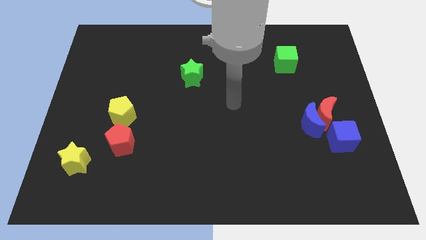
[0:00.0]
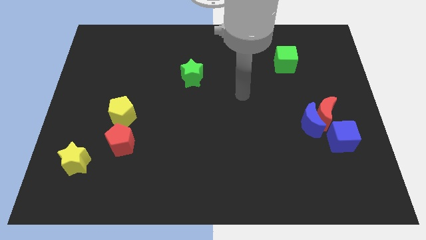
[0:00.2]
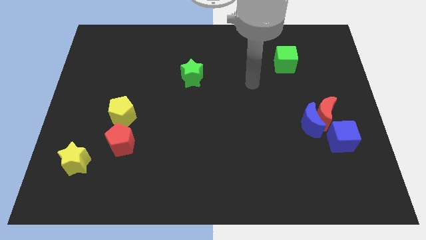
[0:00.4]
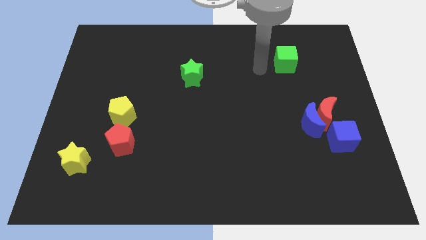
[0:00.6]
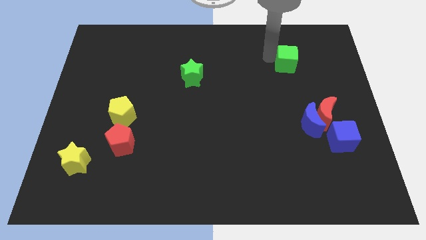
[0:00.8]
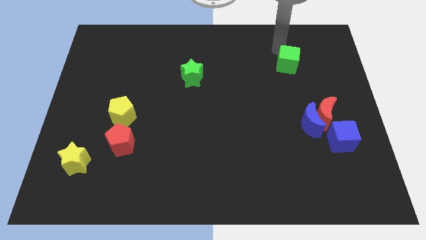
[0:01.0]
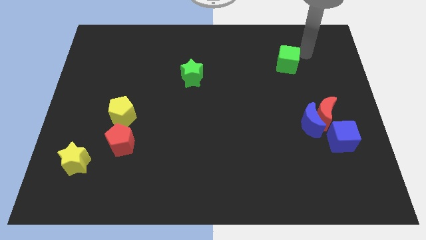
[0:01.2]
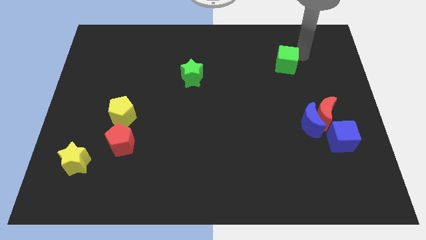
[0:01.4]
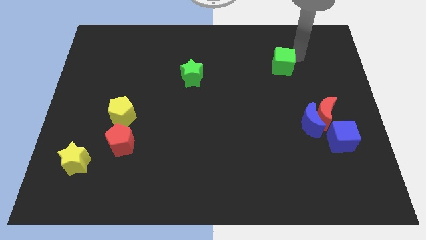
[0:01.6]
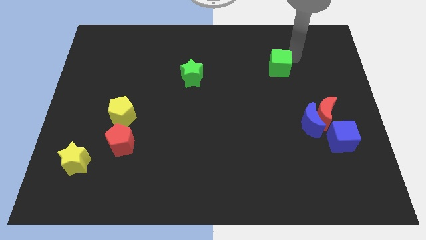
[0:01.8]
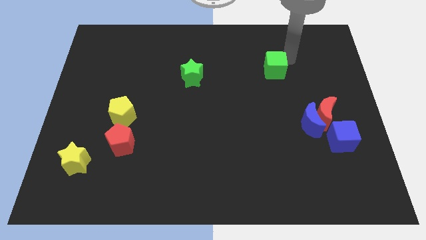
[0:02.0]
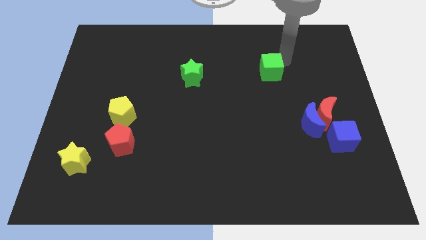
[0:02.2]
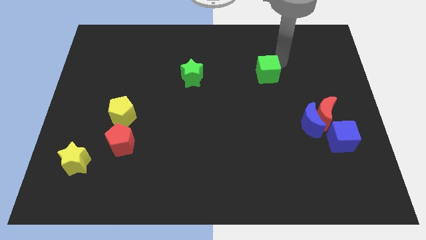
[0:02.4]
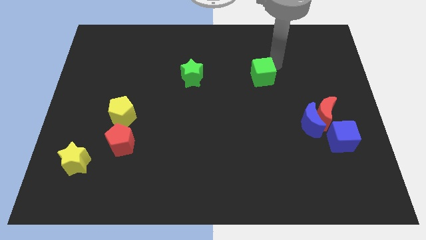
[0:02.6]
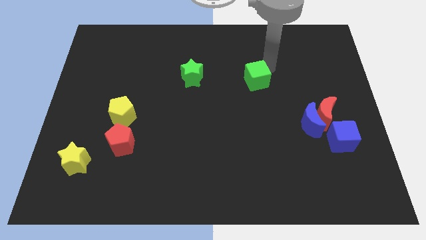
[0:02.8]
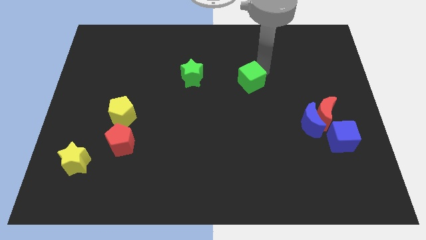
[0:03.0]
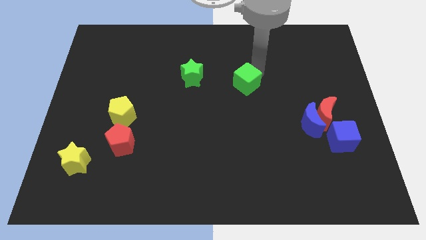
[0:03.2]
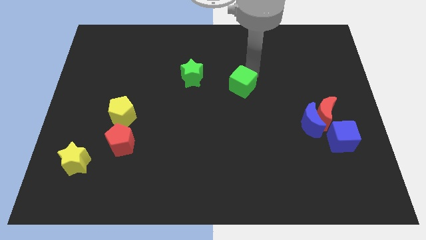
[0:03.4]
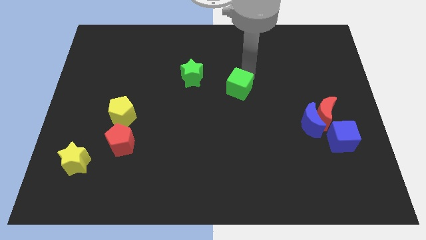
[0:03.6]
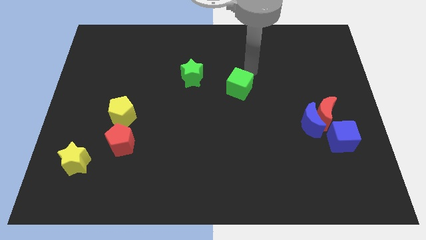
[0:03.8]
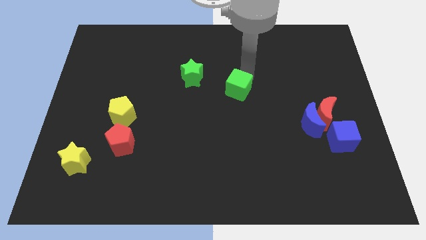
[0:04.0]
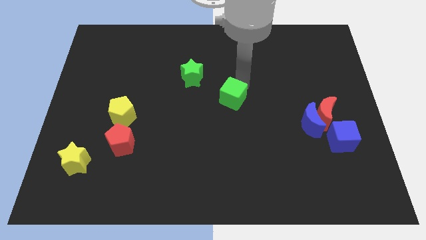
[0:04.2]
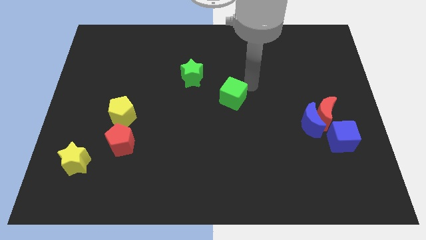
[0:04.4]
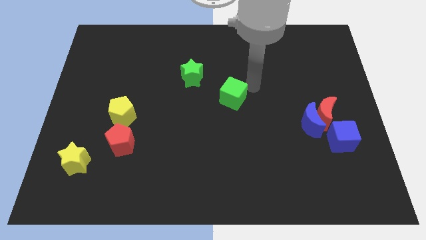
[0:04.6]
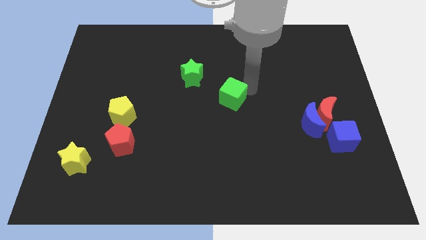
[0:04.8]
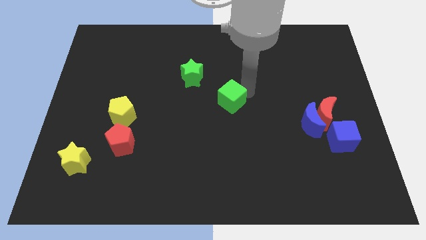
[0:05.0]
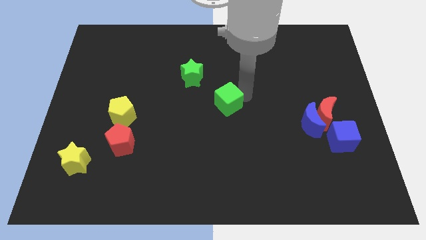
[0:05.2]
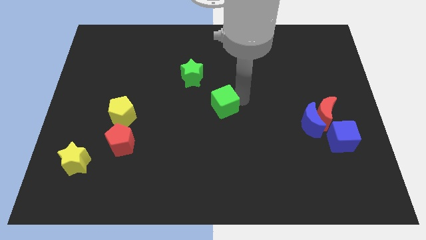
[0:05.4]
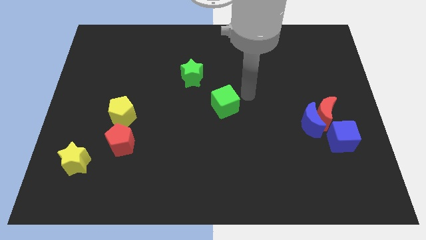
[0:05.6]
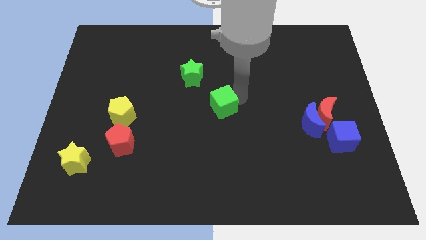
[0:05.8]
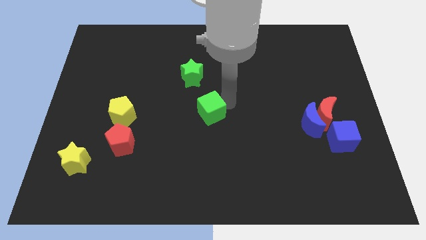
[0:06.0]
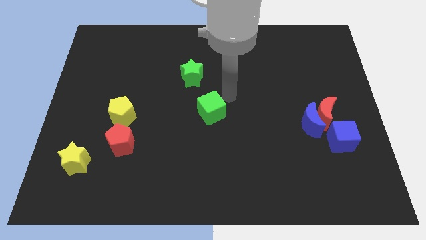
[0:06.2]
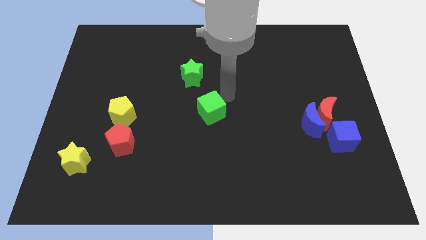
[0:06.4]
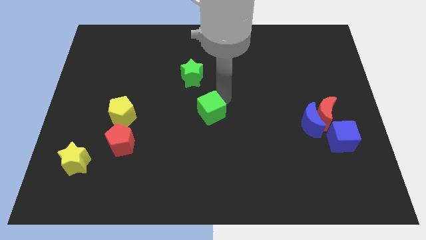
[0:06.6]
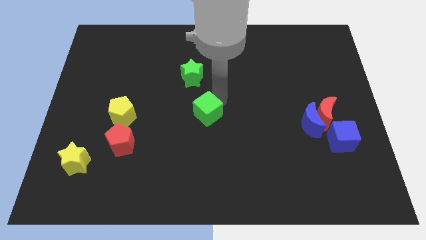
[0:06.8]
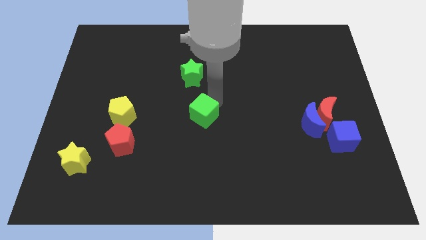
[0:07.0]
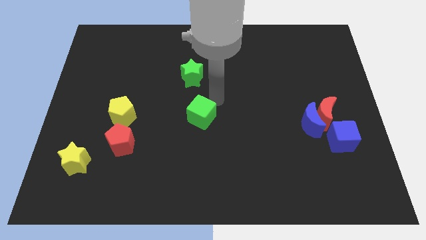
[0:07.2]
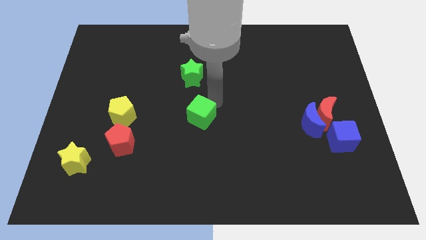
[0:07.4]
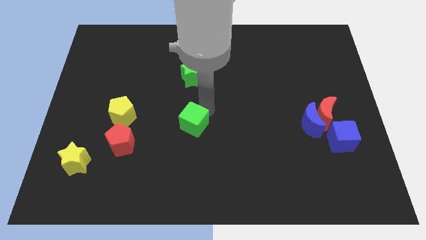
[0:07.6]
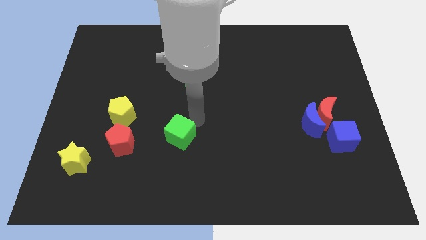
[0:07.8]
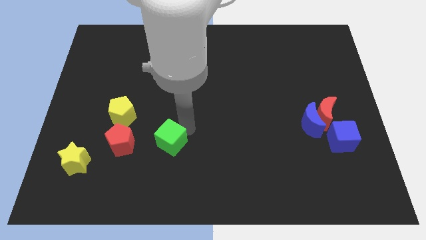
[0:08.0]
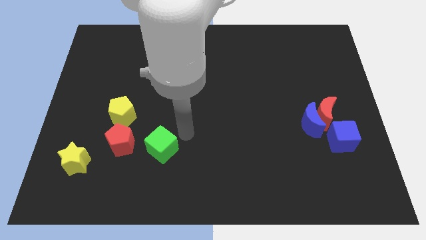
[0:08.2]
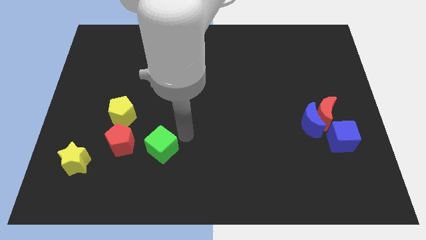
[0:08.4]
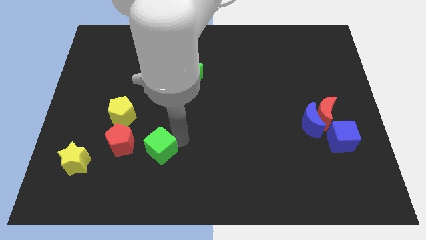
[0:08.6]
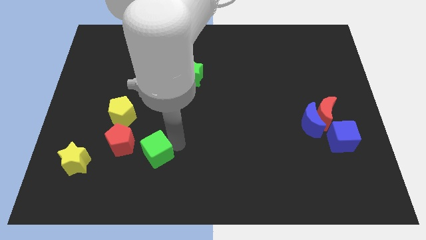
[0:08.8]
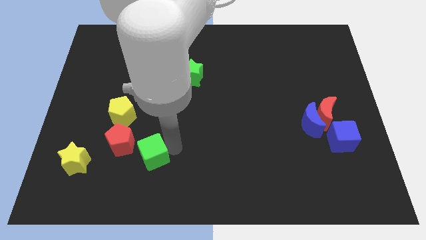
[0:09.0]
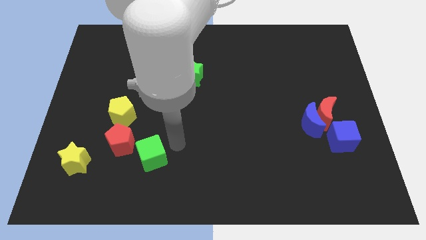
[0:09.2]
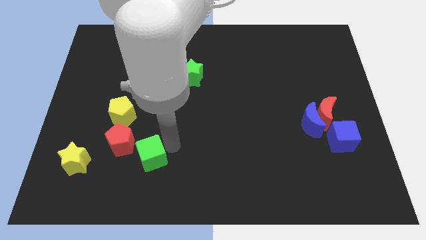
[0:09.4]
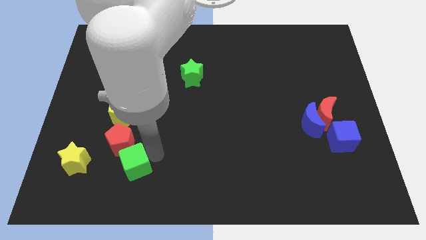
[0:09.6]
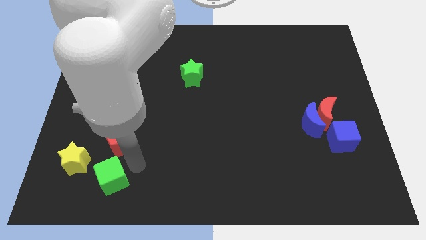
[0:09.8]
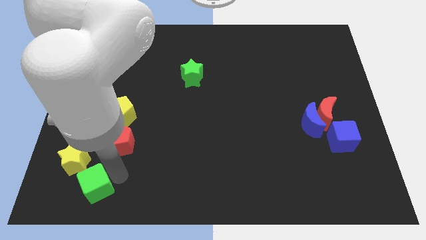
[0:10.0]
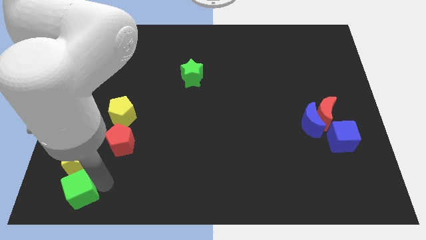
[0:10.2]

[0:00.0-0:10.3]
move the green cube to the bottom left

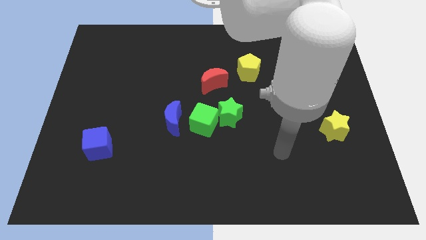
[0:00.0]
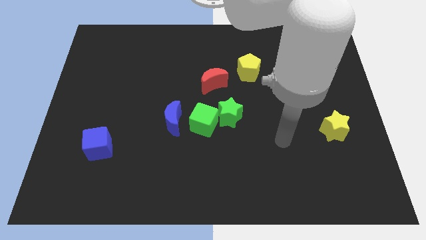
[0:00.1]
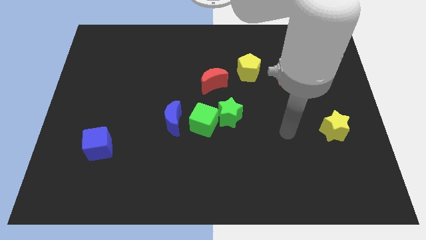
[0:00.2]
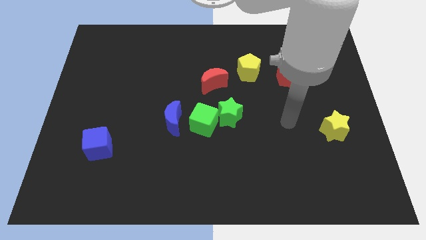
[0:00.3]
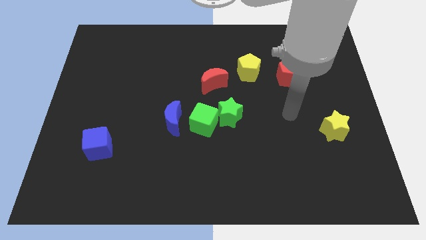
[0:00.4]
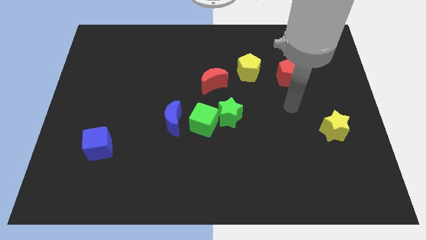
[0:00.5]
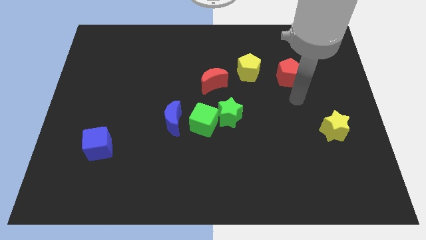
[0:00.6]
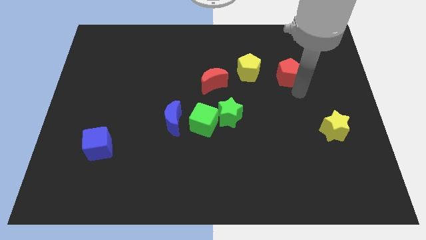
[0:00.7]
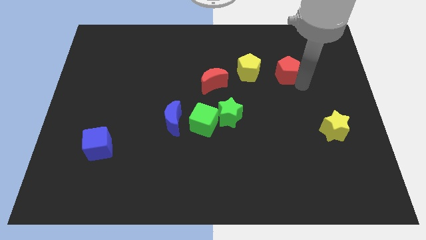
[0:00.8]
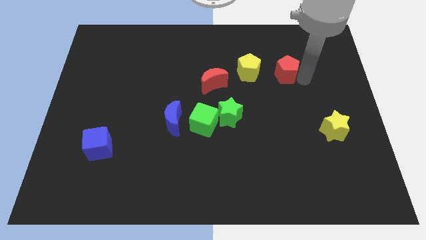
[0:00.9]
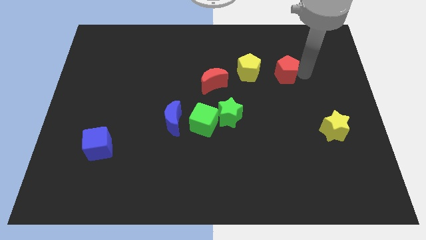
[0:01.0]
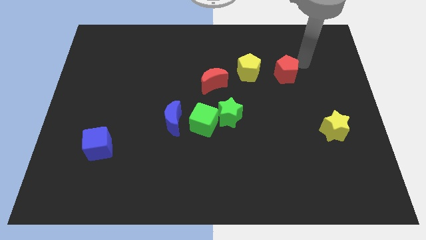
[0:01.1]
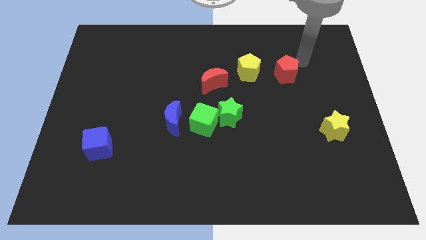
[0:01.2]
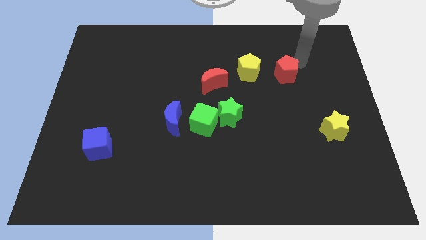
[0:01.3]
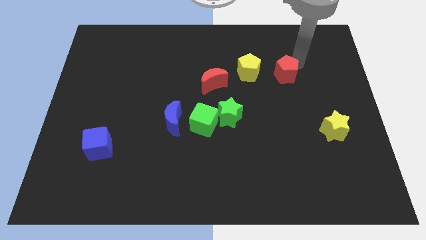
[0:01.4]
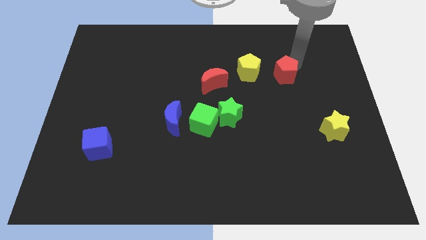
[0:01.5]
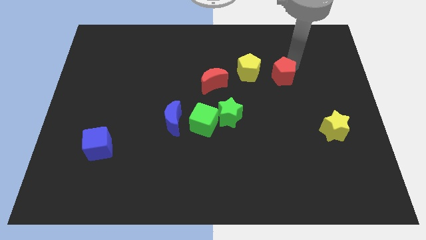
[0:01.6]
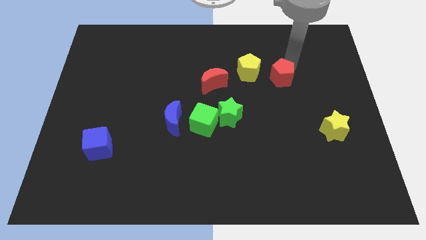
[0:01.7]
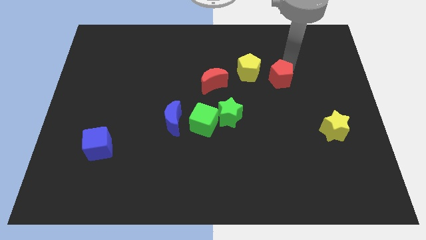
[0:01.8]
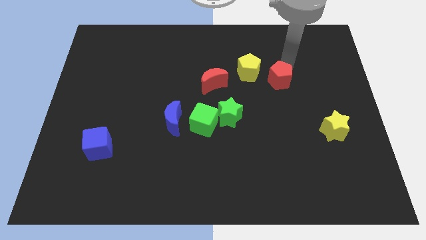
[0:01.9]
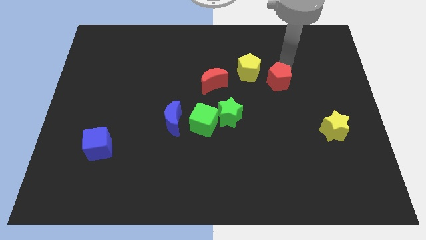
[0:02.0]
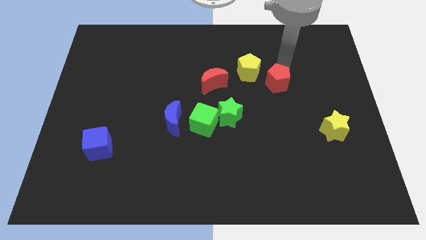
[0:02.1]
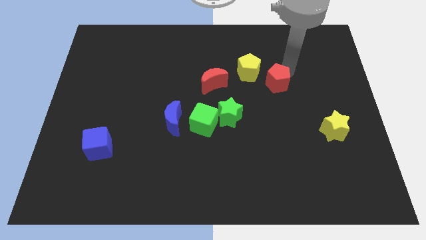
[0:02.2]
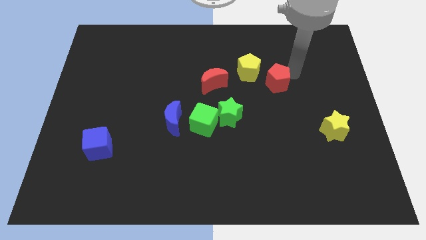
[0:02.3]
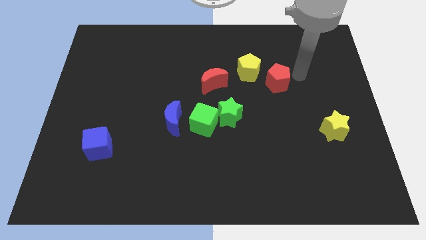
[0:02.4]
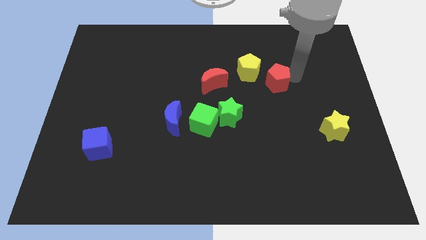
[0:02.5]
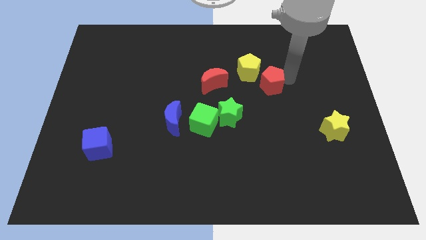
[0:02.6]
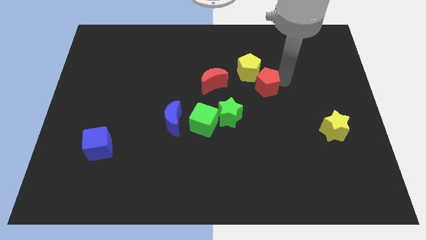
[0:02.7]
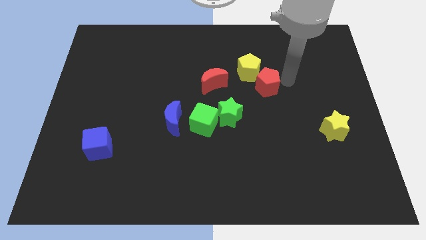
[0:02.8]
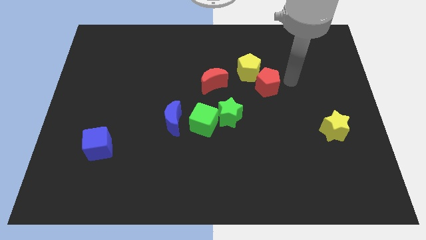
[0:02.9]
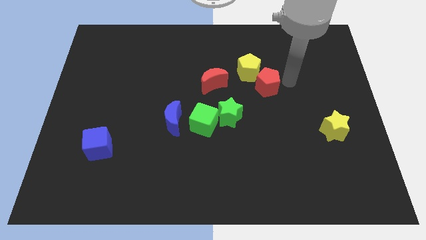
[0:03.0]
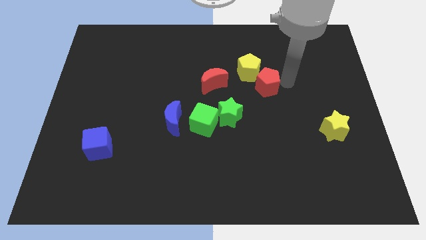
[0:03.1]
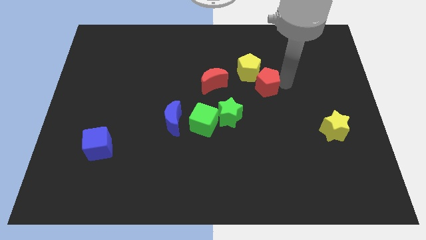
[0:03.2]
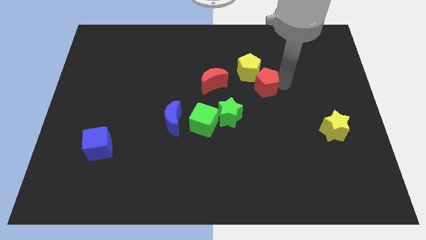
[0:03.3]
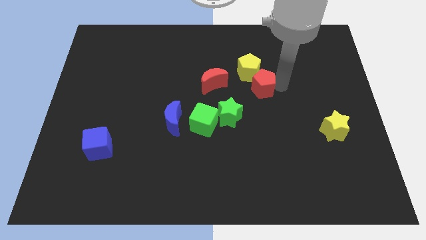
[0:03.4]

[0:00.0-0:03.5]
slide the red pentagon to the middle of the board
